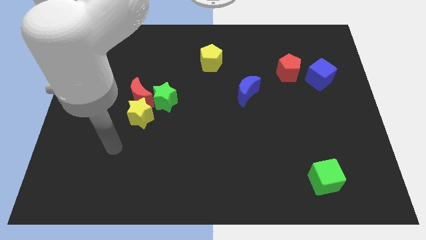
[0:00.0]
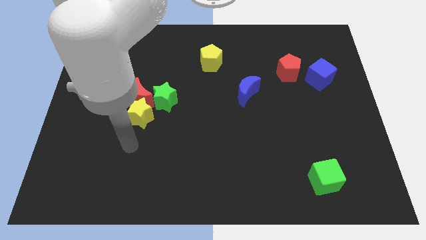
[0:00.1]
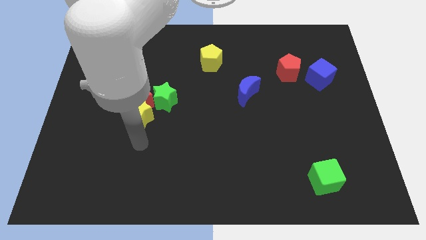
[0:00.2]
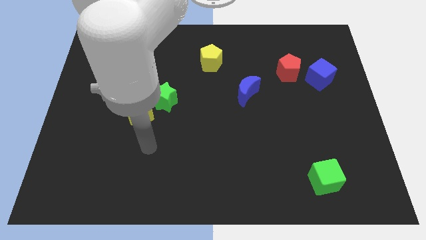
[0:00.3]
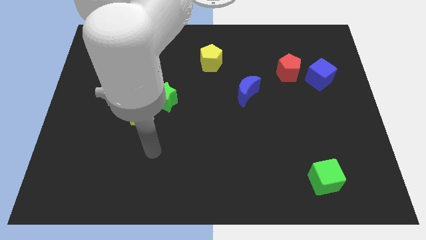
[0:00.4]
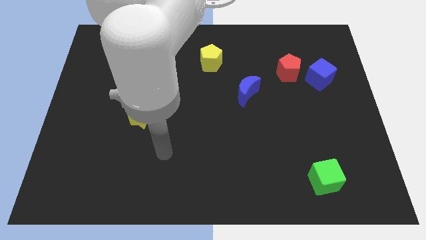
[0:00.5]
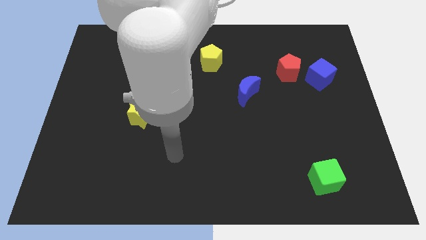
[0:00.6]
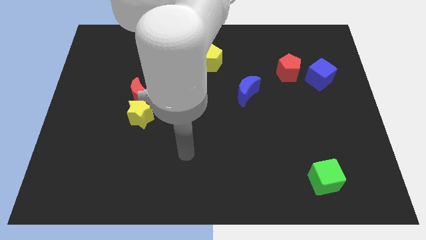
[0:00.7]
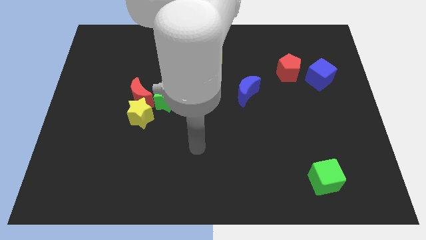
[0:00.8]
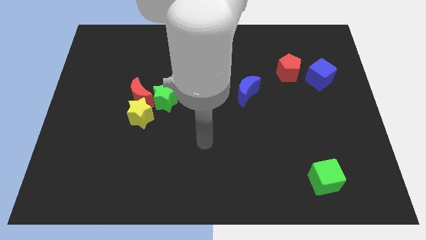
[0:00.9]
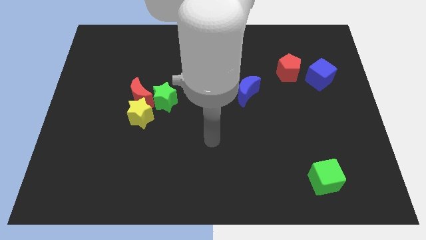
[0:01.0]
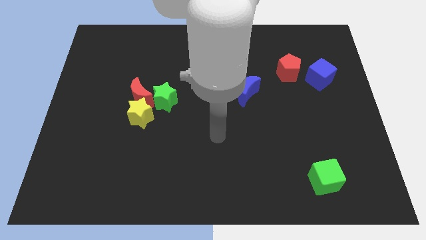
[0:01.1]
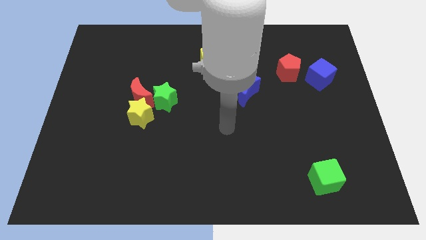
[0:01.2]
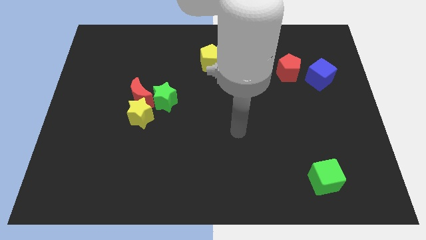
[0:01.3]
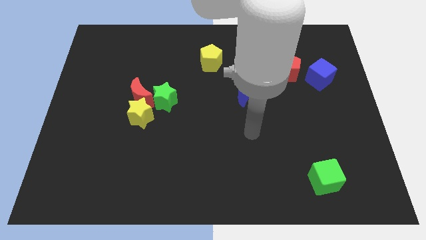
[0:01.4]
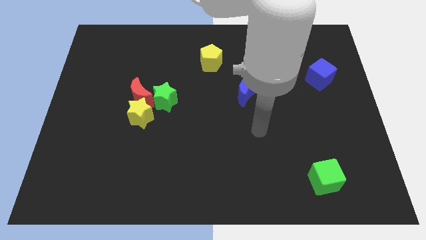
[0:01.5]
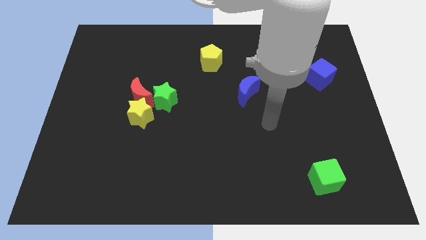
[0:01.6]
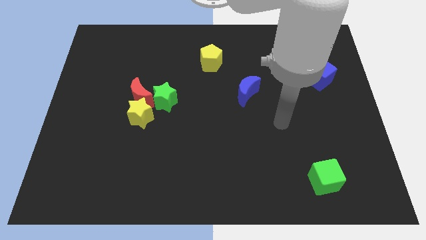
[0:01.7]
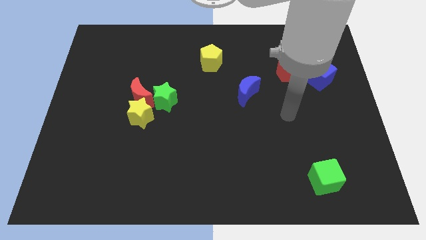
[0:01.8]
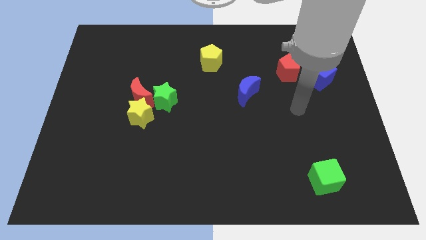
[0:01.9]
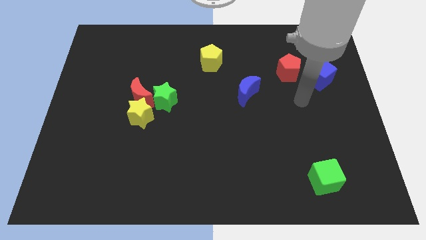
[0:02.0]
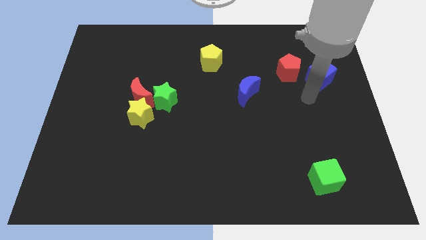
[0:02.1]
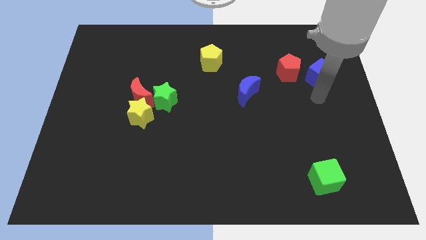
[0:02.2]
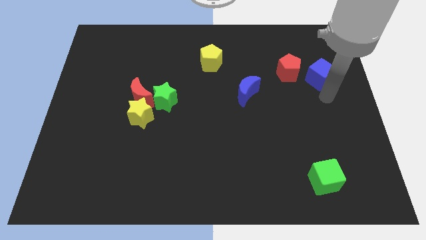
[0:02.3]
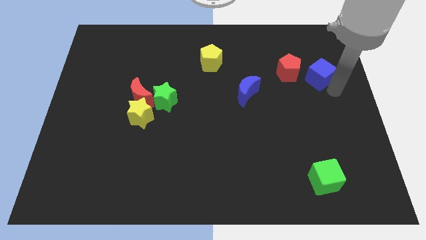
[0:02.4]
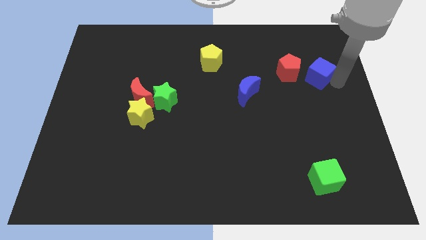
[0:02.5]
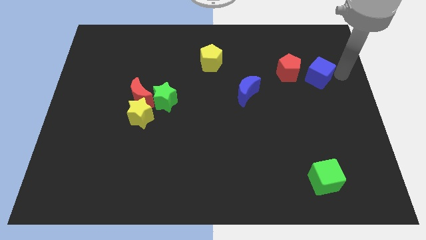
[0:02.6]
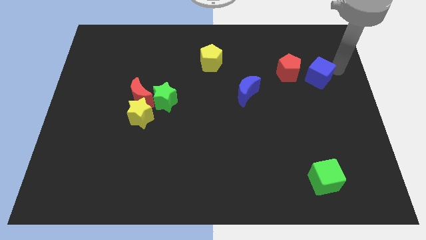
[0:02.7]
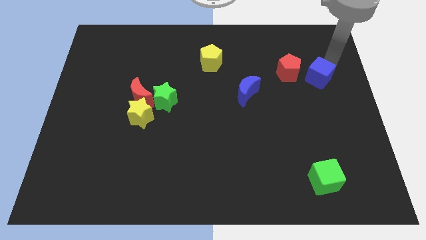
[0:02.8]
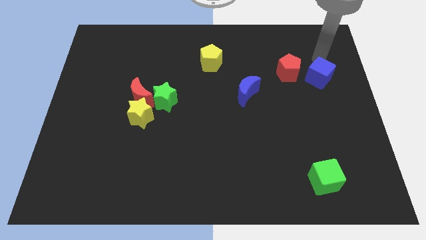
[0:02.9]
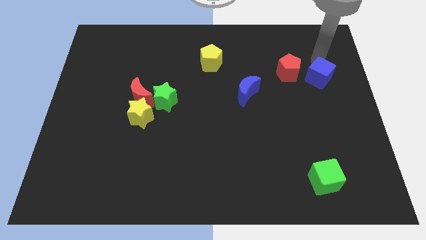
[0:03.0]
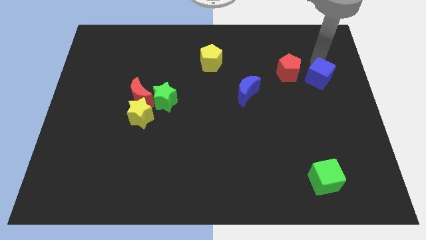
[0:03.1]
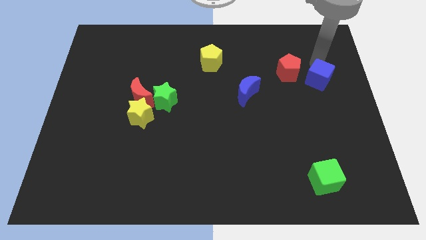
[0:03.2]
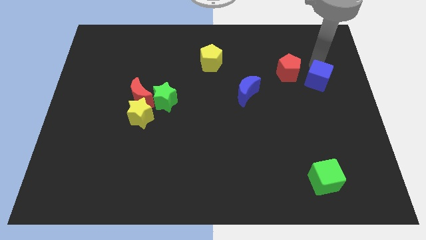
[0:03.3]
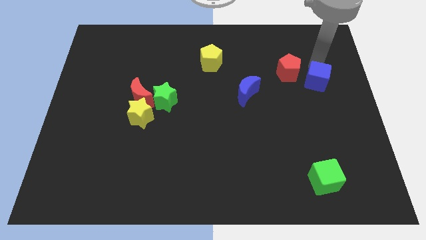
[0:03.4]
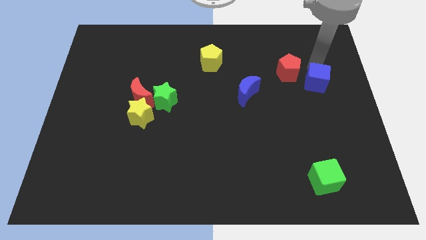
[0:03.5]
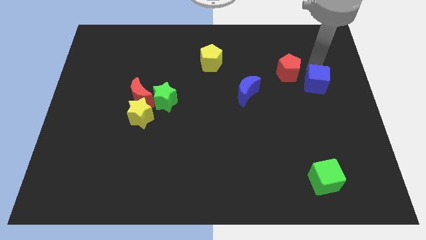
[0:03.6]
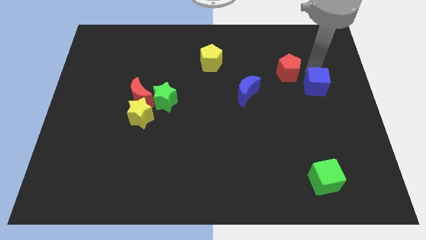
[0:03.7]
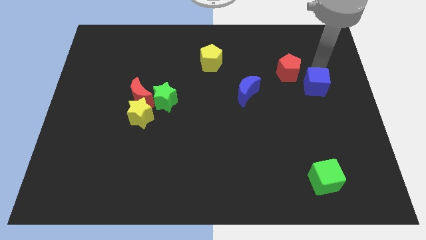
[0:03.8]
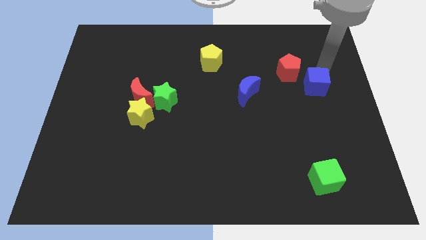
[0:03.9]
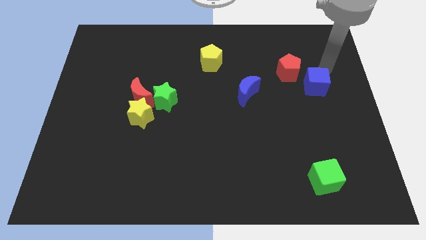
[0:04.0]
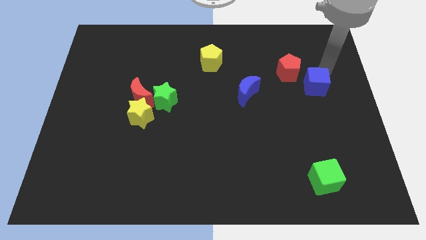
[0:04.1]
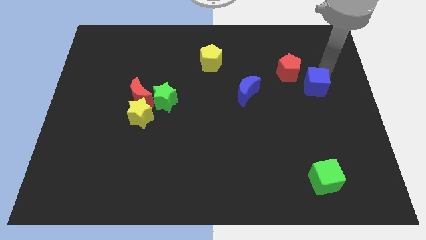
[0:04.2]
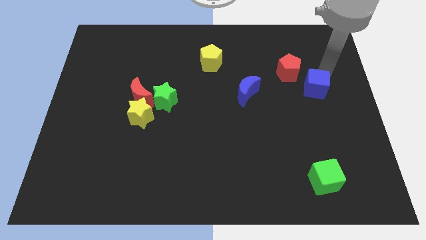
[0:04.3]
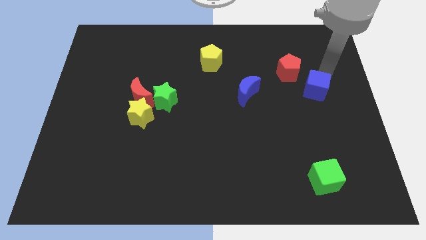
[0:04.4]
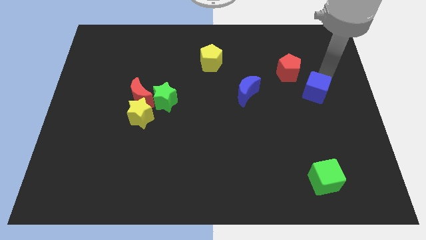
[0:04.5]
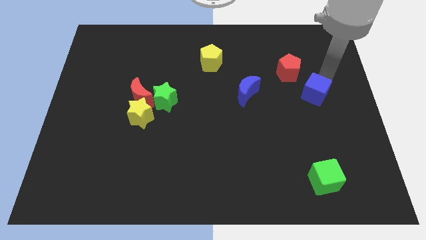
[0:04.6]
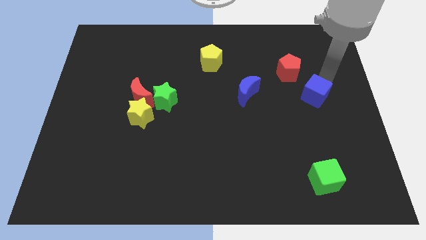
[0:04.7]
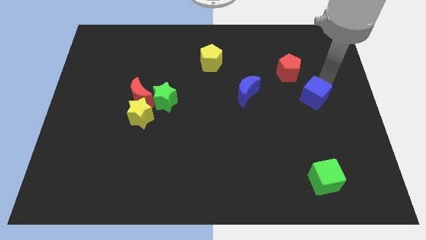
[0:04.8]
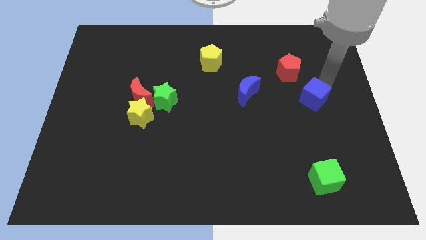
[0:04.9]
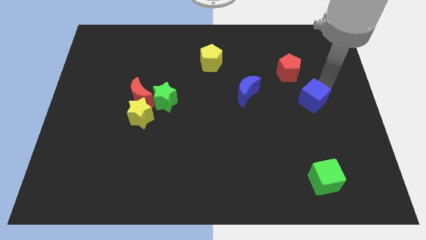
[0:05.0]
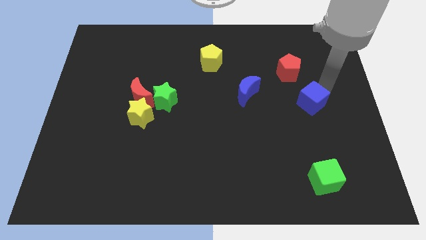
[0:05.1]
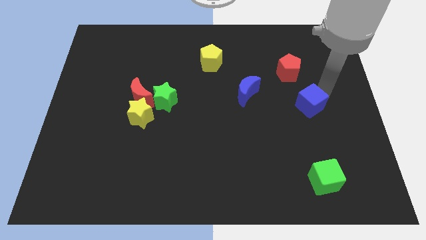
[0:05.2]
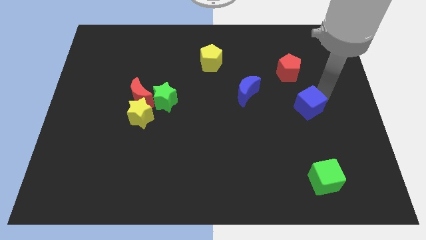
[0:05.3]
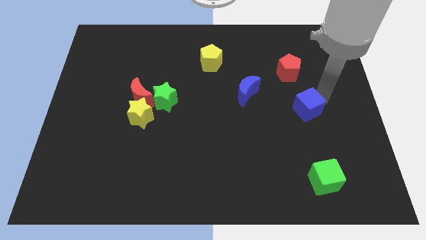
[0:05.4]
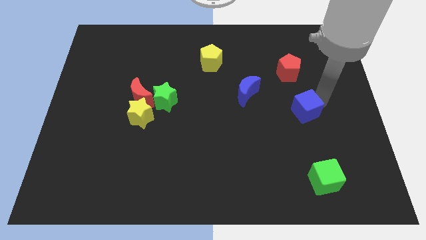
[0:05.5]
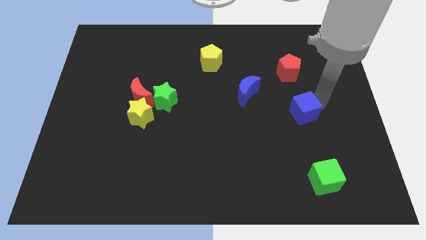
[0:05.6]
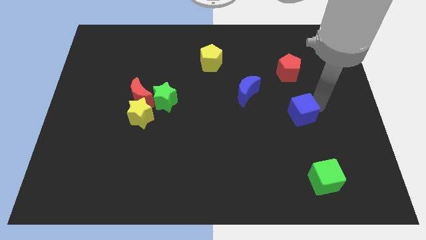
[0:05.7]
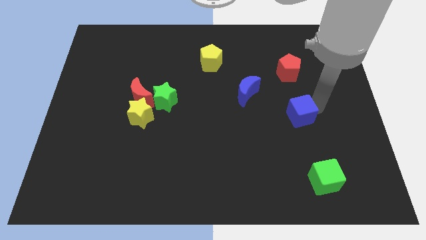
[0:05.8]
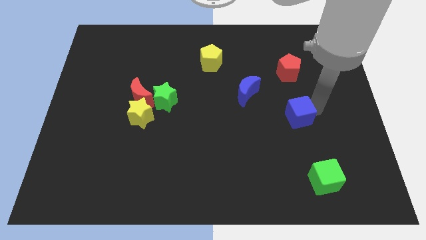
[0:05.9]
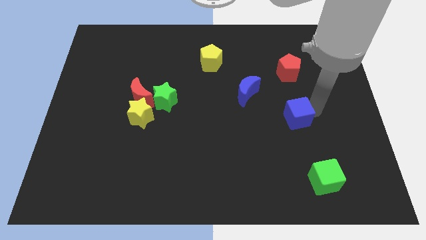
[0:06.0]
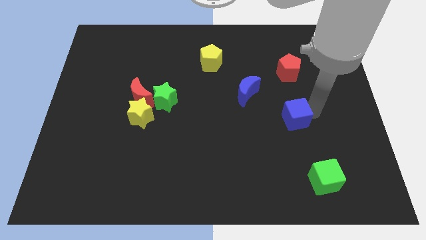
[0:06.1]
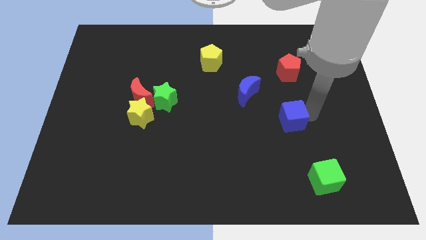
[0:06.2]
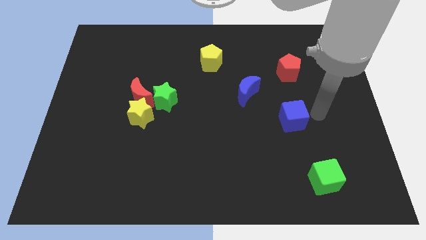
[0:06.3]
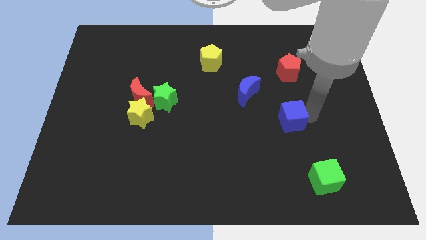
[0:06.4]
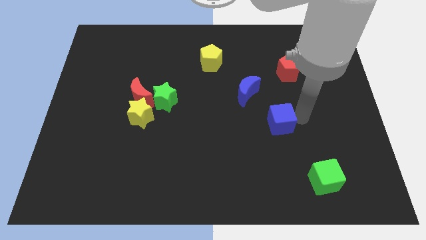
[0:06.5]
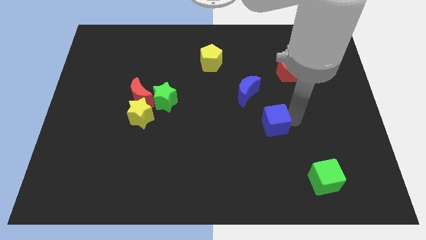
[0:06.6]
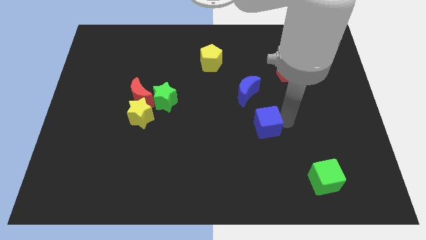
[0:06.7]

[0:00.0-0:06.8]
push the blue cube below the blue moon
